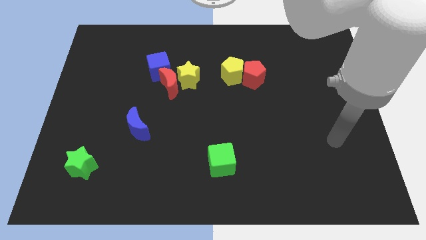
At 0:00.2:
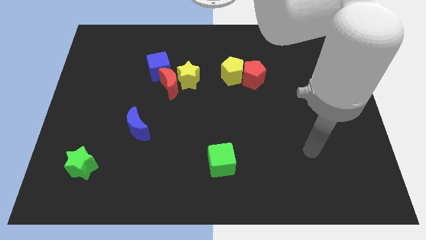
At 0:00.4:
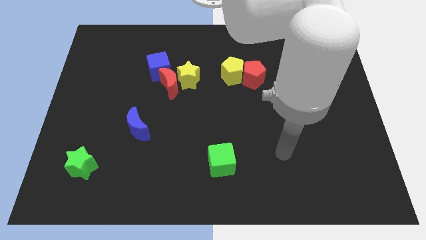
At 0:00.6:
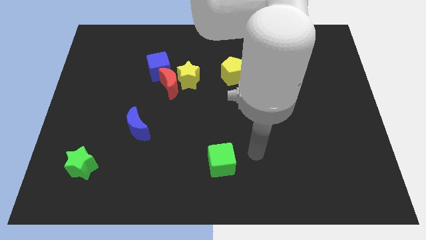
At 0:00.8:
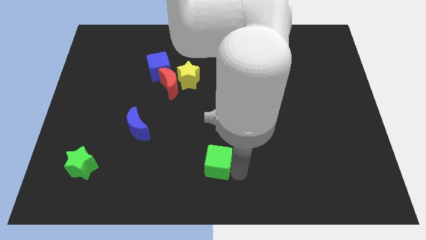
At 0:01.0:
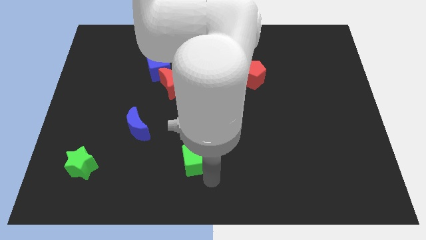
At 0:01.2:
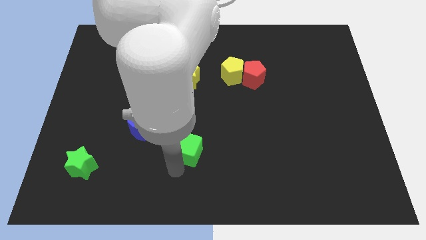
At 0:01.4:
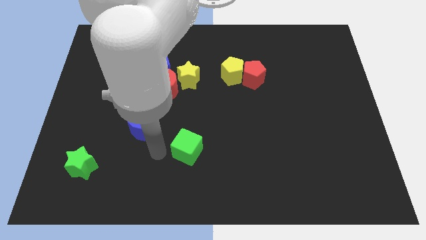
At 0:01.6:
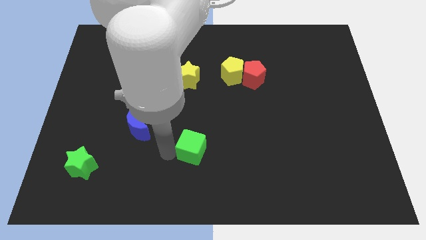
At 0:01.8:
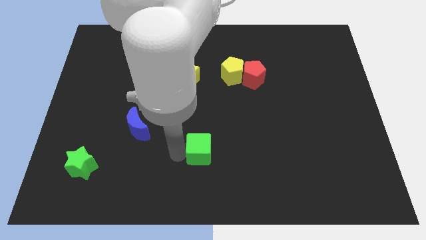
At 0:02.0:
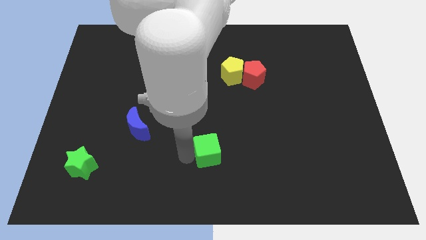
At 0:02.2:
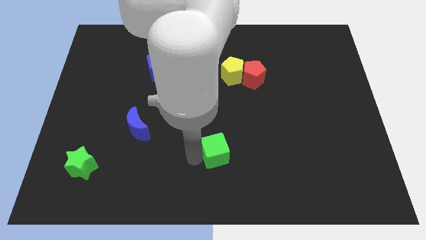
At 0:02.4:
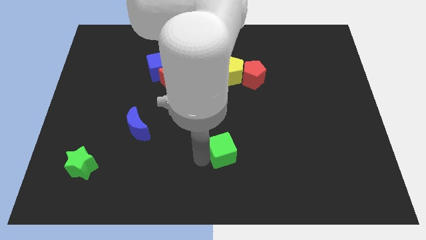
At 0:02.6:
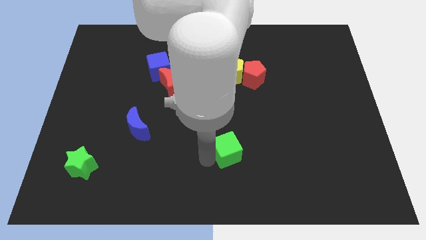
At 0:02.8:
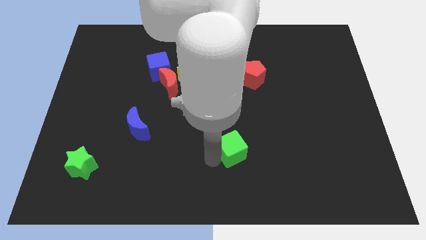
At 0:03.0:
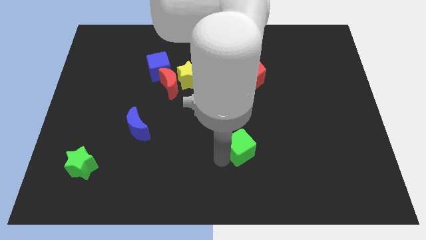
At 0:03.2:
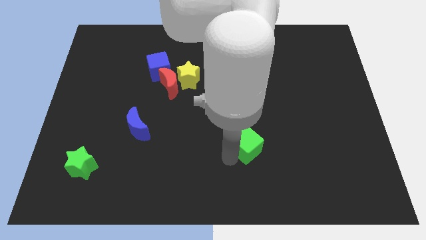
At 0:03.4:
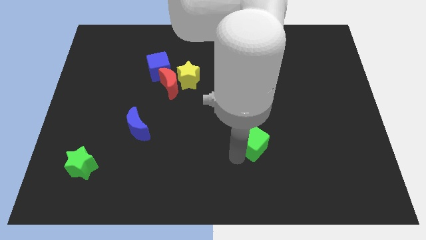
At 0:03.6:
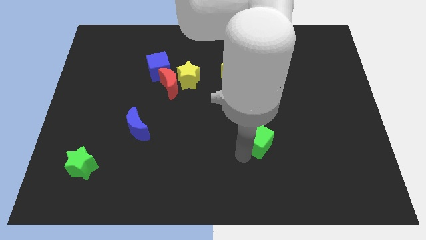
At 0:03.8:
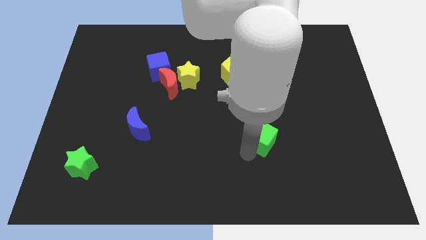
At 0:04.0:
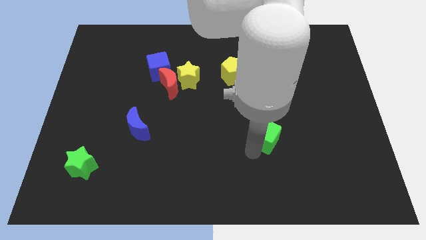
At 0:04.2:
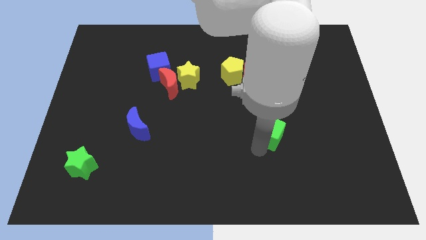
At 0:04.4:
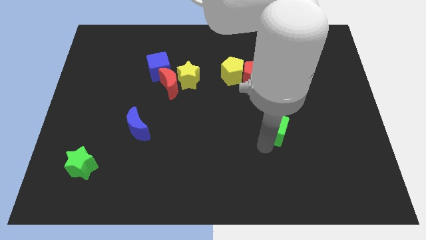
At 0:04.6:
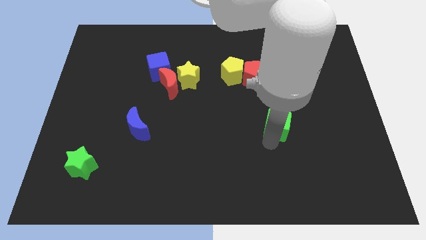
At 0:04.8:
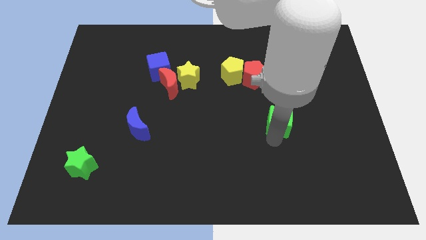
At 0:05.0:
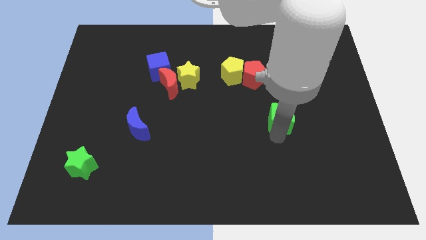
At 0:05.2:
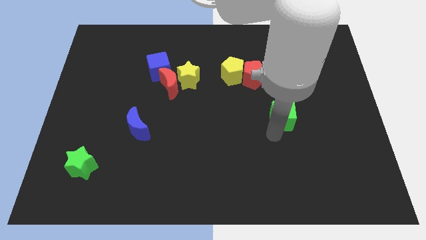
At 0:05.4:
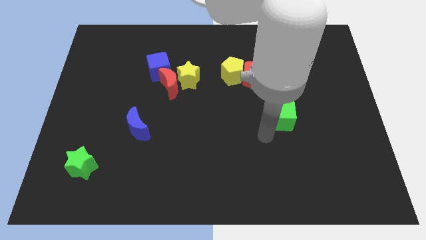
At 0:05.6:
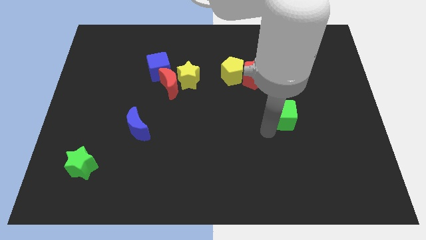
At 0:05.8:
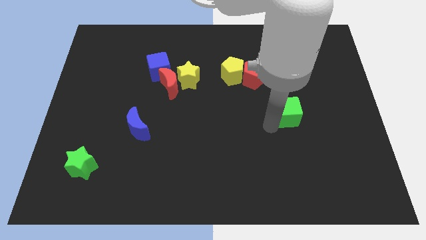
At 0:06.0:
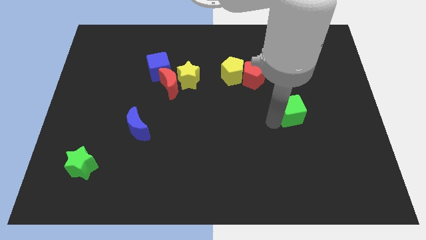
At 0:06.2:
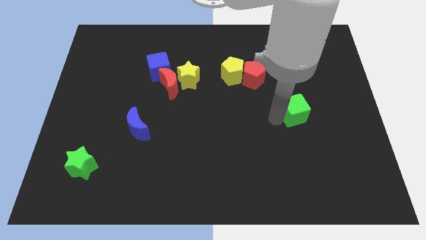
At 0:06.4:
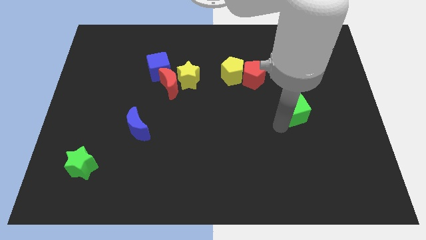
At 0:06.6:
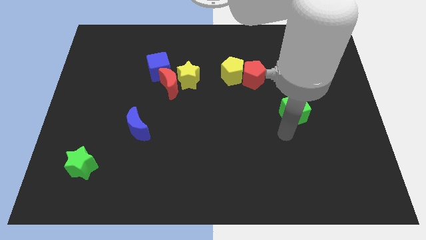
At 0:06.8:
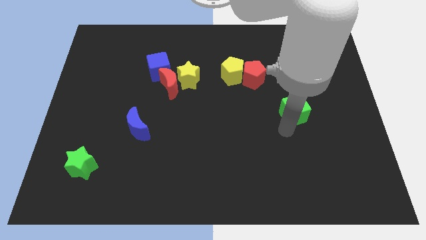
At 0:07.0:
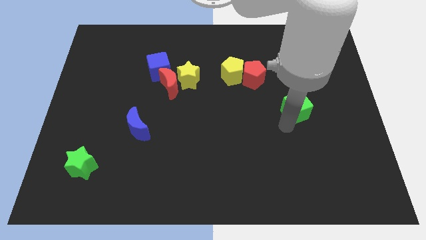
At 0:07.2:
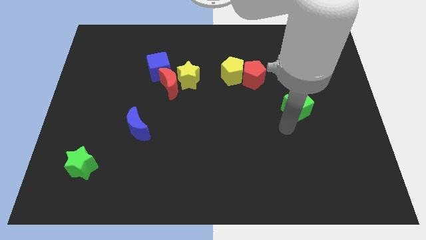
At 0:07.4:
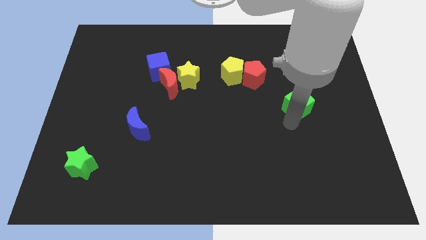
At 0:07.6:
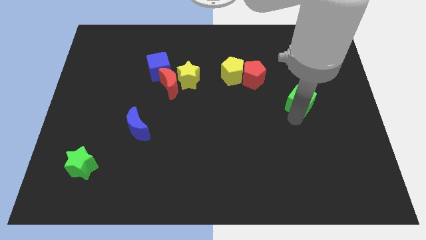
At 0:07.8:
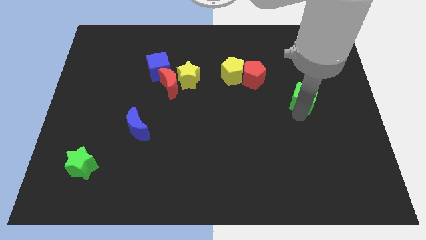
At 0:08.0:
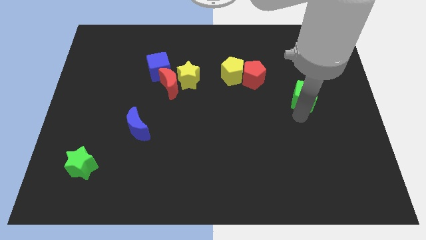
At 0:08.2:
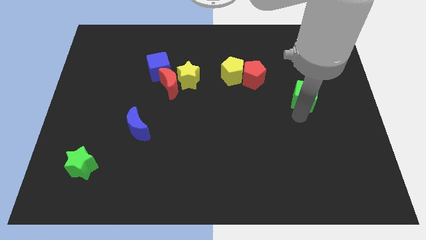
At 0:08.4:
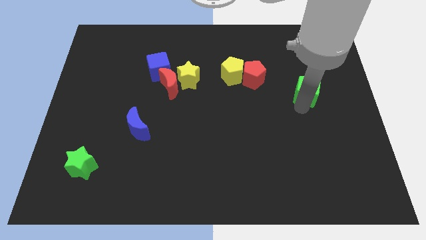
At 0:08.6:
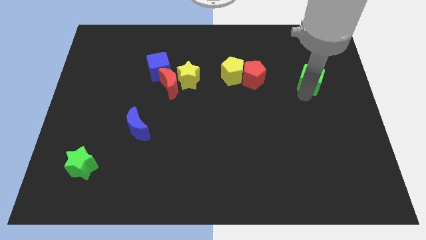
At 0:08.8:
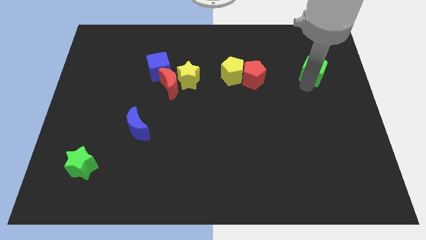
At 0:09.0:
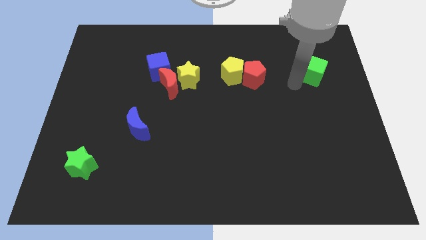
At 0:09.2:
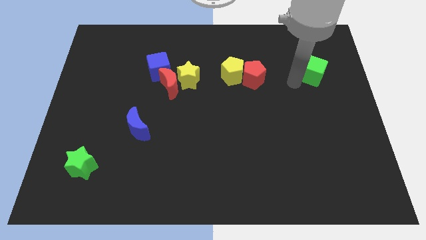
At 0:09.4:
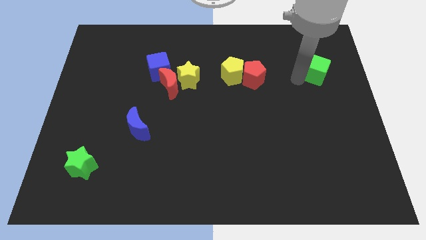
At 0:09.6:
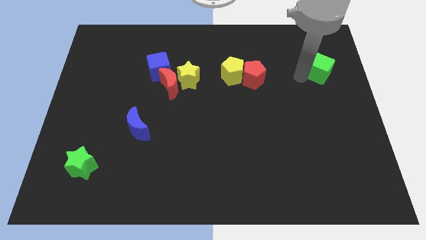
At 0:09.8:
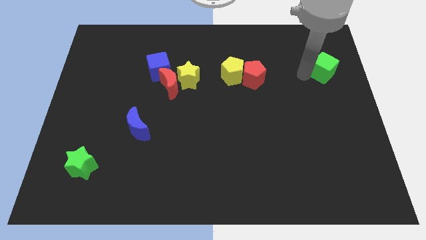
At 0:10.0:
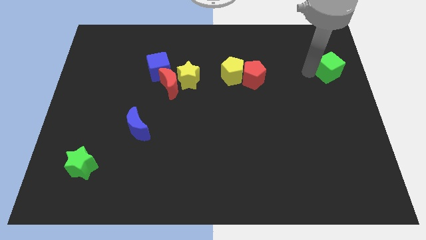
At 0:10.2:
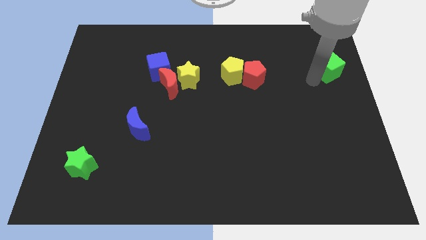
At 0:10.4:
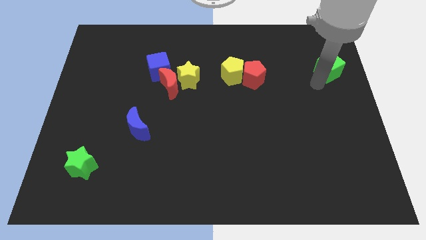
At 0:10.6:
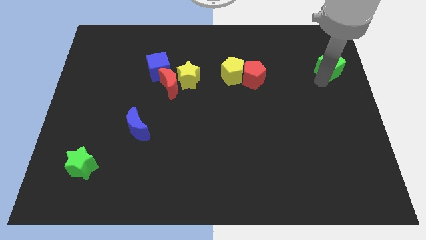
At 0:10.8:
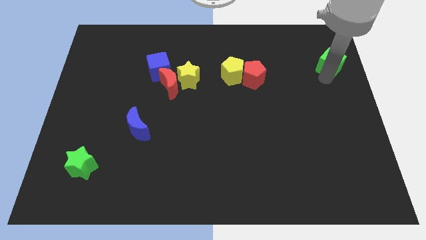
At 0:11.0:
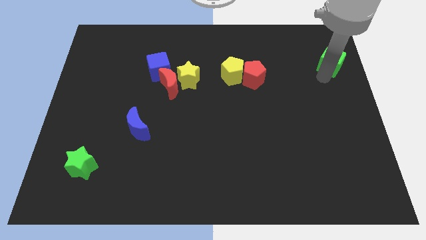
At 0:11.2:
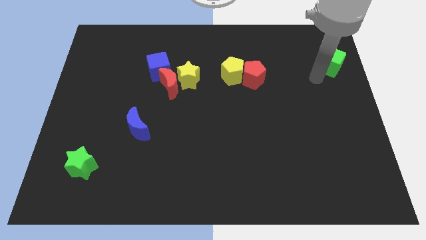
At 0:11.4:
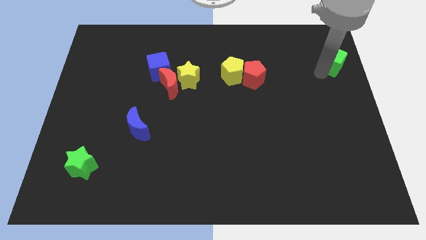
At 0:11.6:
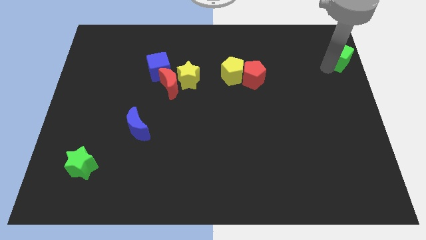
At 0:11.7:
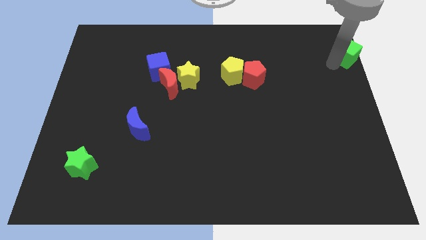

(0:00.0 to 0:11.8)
push the green cube to the upper right corner
